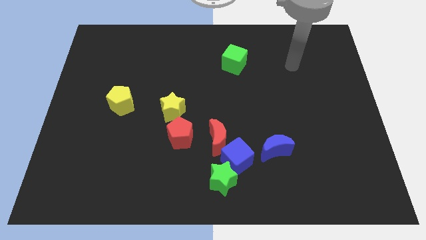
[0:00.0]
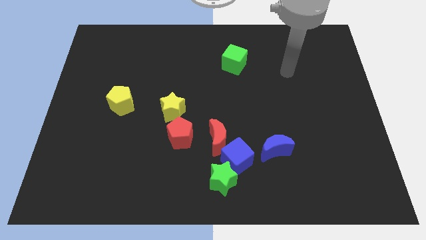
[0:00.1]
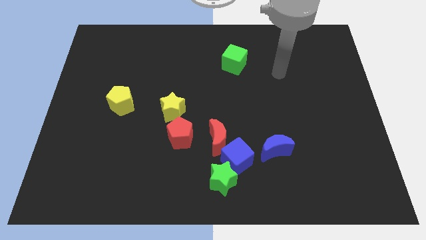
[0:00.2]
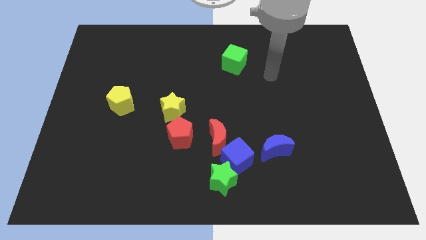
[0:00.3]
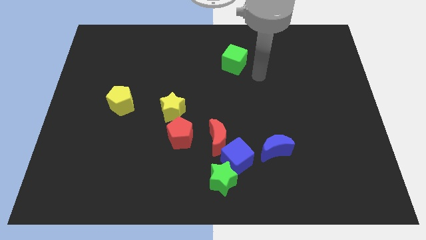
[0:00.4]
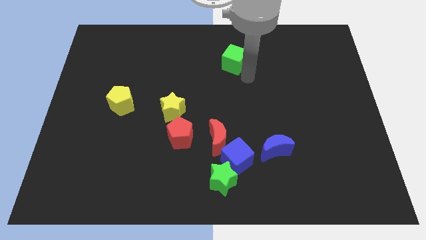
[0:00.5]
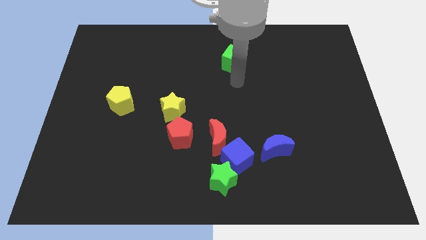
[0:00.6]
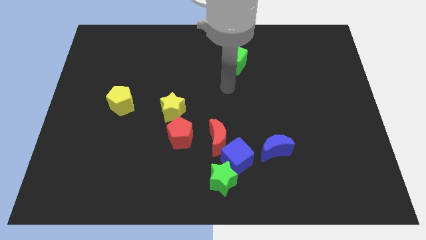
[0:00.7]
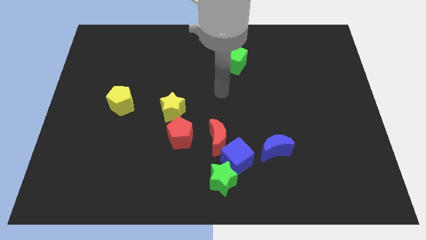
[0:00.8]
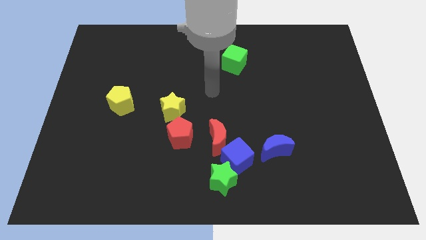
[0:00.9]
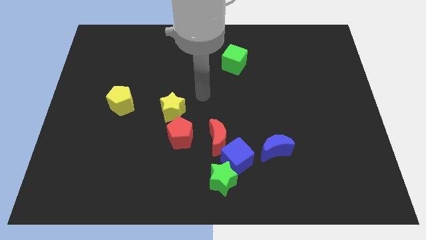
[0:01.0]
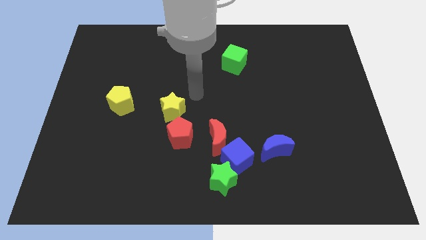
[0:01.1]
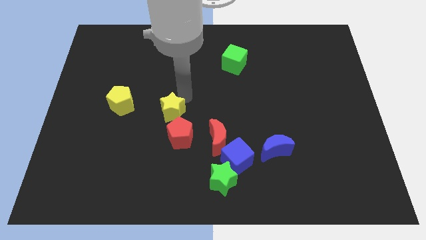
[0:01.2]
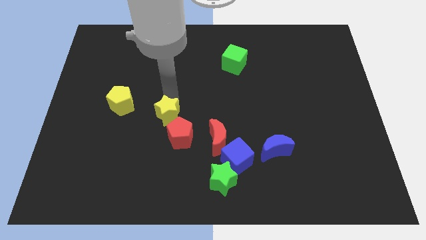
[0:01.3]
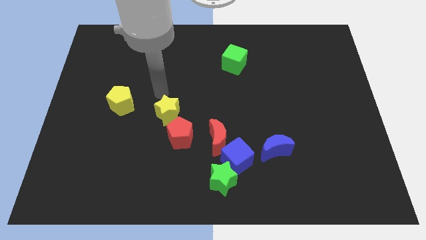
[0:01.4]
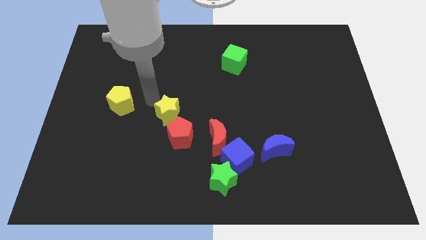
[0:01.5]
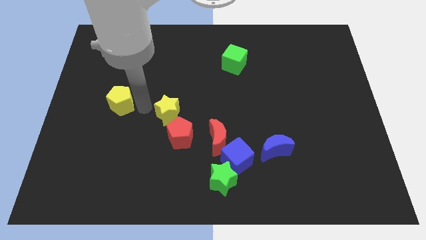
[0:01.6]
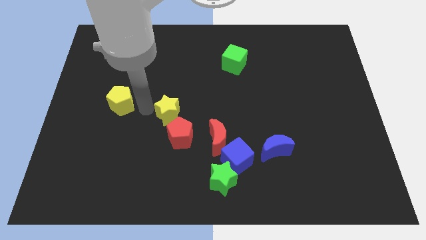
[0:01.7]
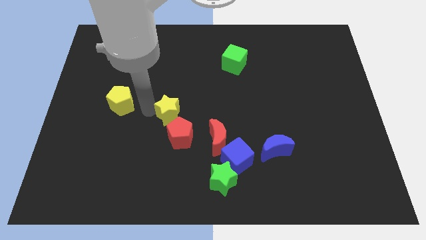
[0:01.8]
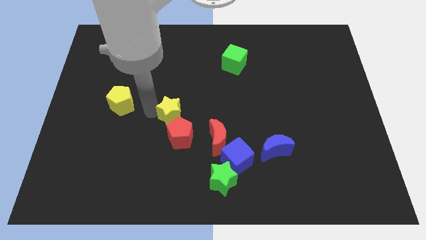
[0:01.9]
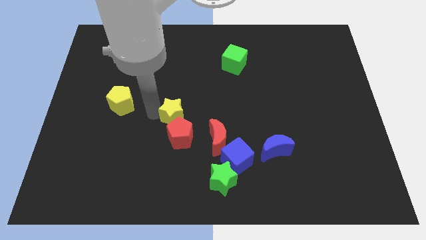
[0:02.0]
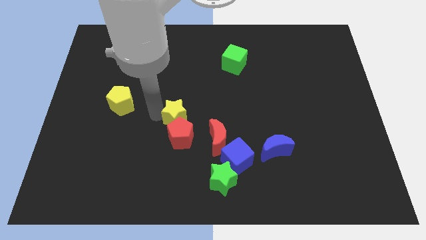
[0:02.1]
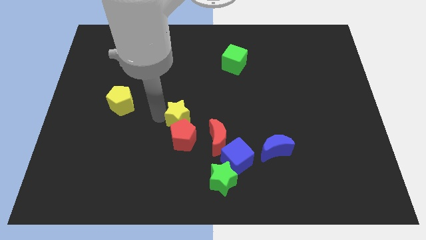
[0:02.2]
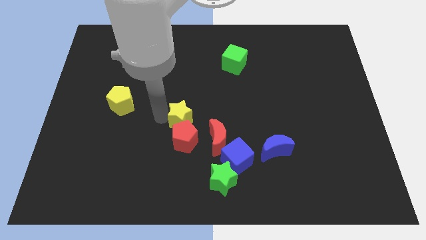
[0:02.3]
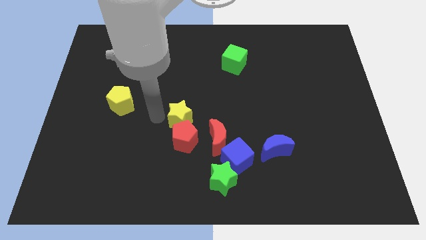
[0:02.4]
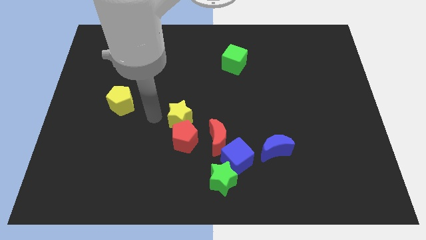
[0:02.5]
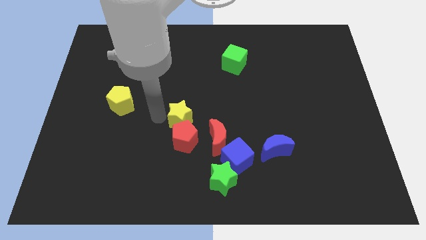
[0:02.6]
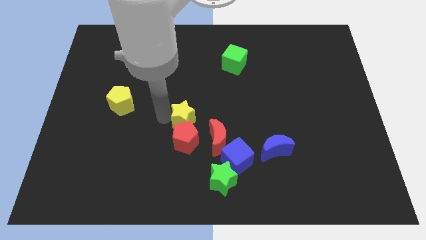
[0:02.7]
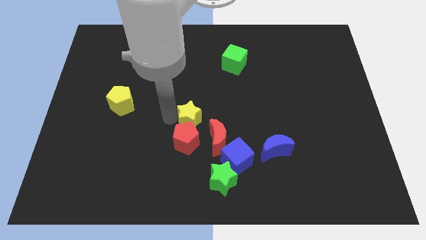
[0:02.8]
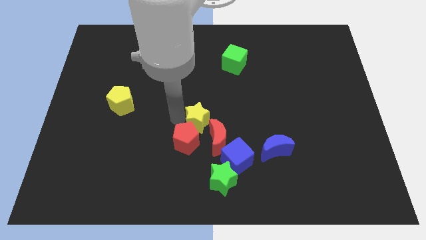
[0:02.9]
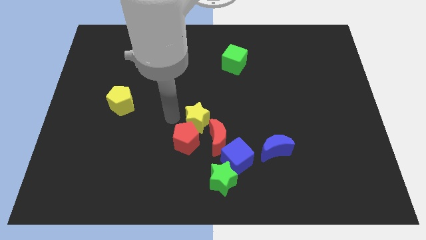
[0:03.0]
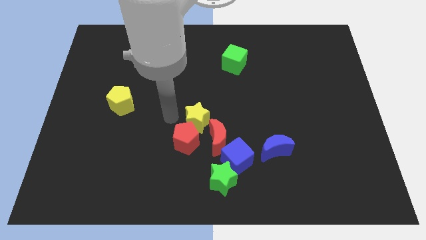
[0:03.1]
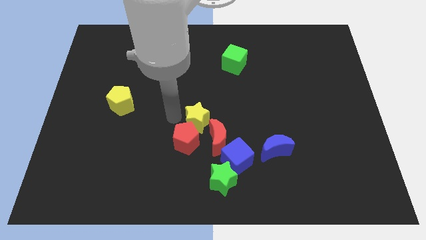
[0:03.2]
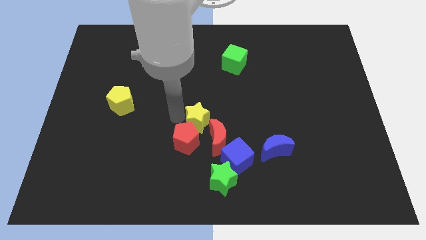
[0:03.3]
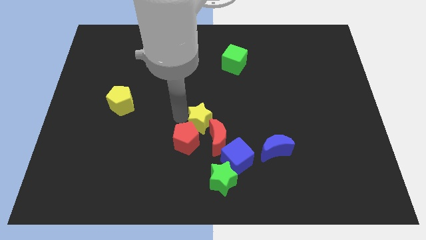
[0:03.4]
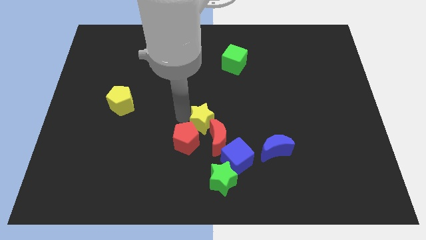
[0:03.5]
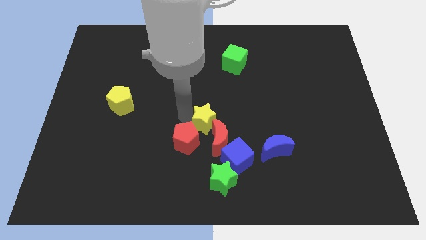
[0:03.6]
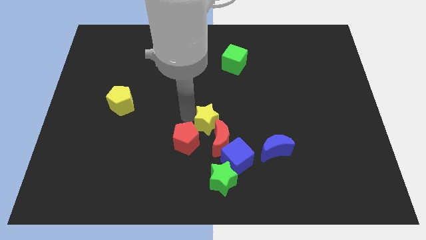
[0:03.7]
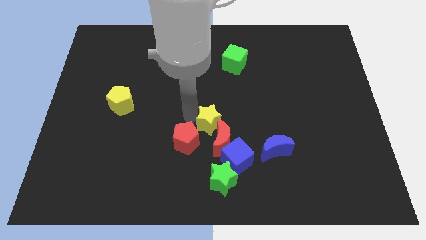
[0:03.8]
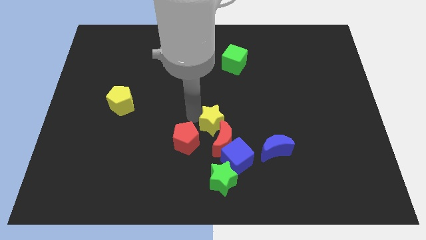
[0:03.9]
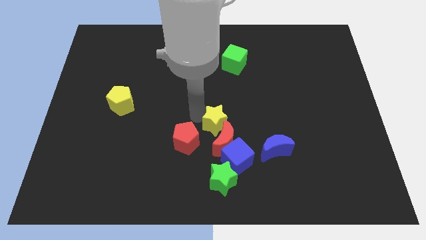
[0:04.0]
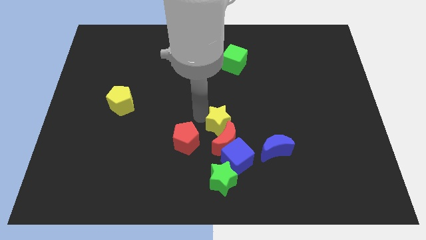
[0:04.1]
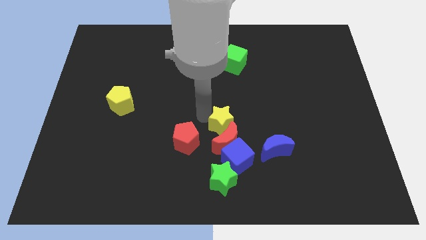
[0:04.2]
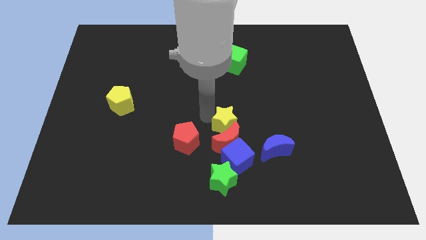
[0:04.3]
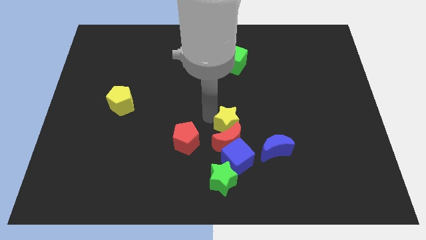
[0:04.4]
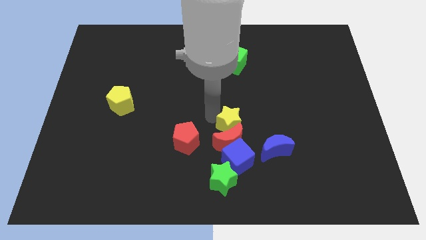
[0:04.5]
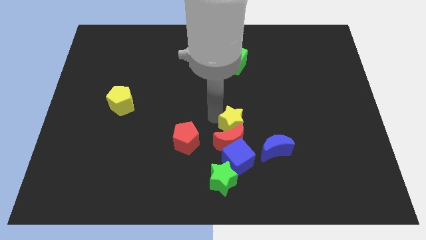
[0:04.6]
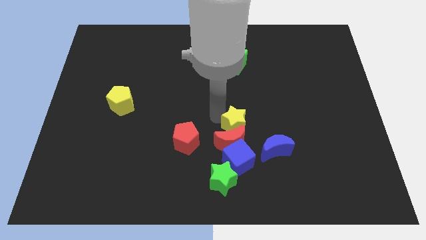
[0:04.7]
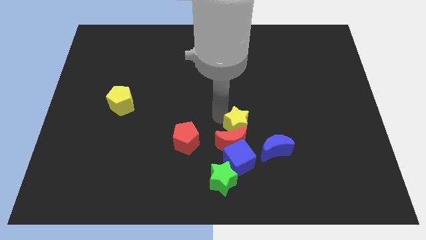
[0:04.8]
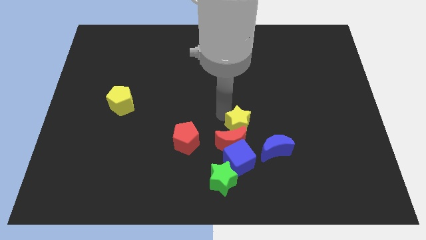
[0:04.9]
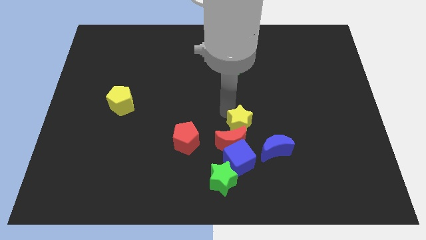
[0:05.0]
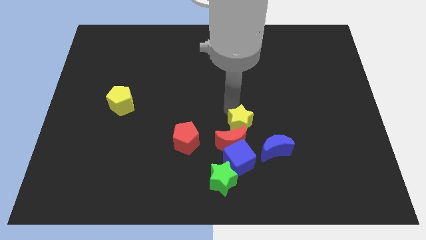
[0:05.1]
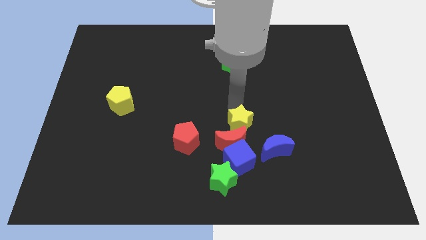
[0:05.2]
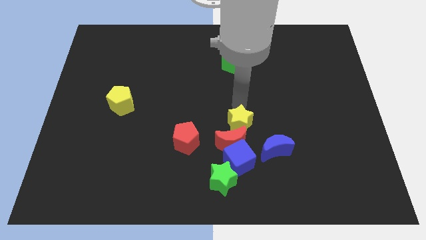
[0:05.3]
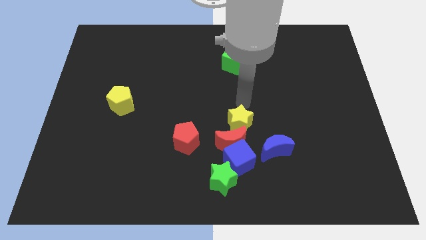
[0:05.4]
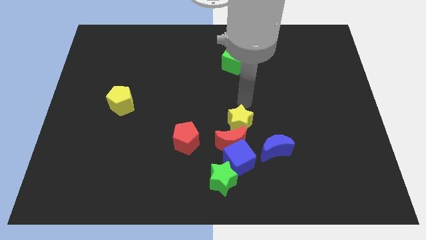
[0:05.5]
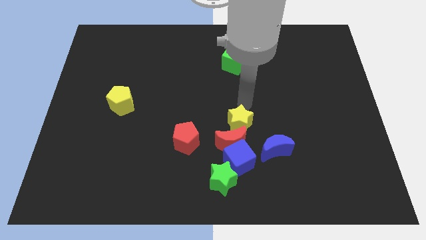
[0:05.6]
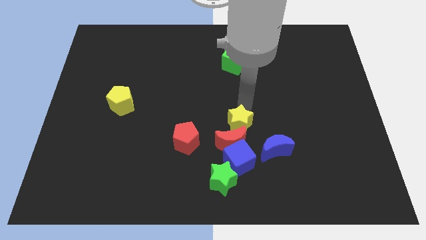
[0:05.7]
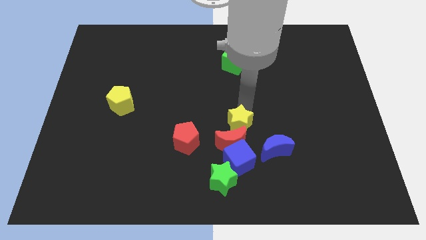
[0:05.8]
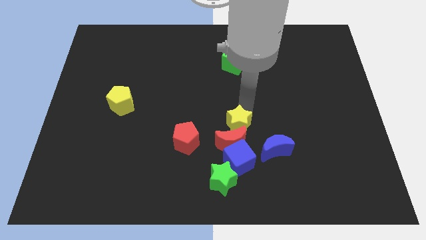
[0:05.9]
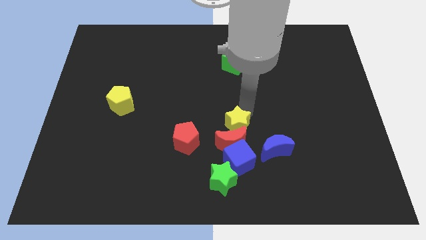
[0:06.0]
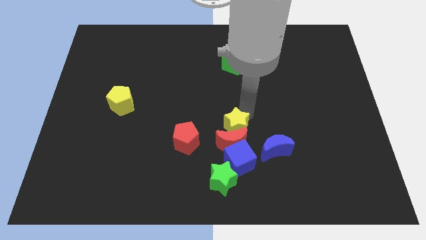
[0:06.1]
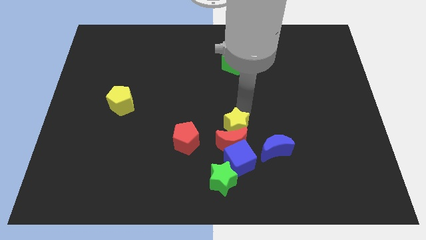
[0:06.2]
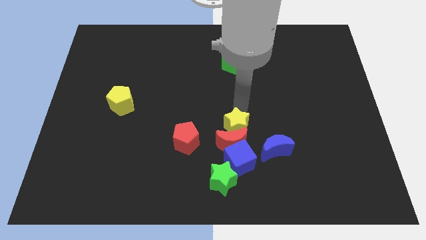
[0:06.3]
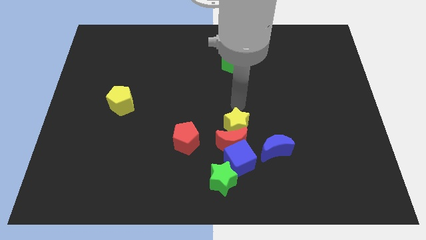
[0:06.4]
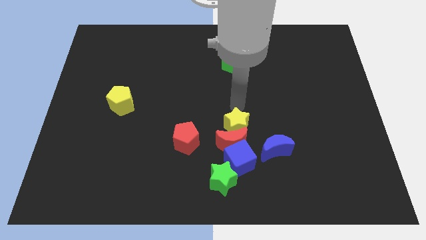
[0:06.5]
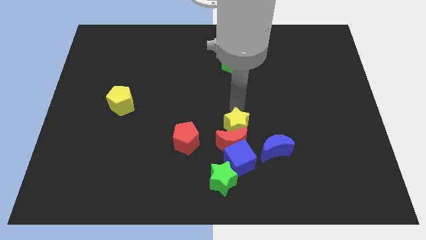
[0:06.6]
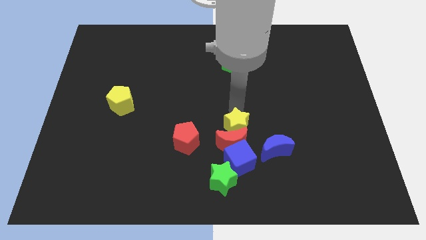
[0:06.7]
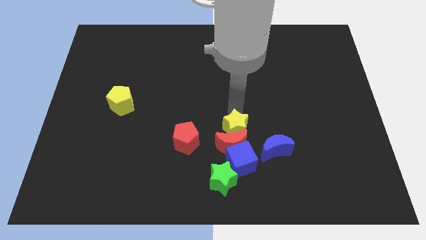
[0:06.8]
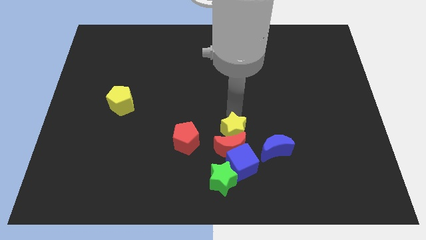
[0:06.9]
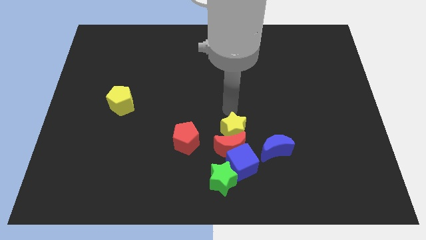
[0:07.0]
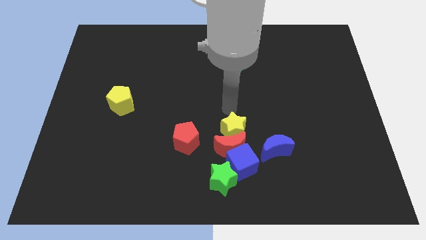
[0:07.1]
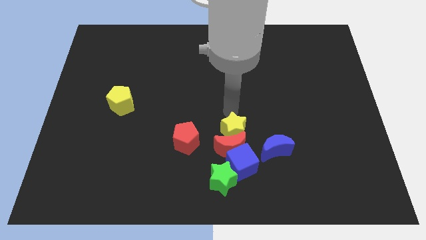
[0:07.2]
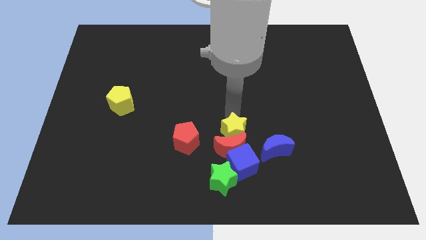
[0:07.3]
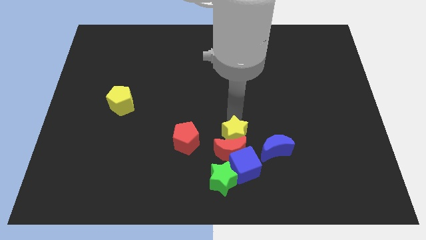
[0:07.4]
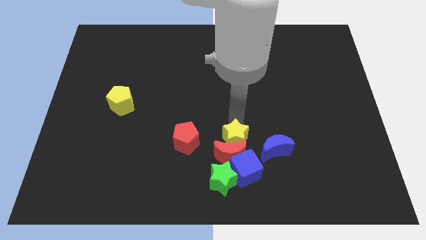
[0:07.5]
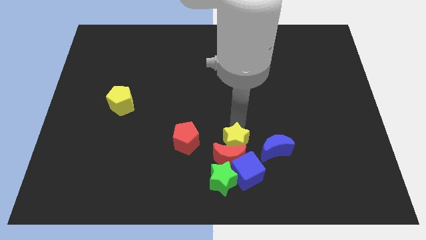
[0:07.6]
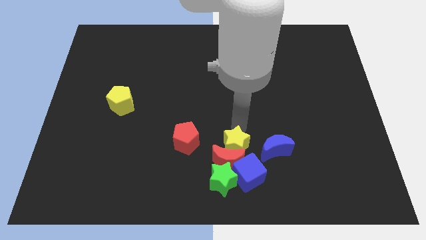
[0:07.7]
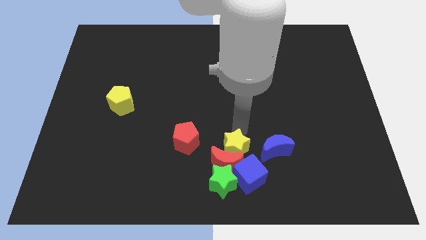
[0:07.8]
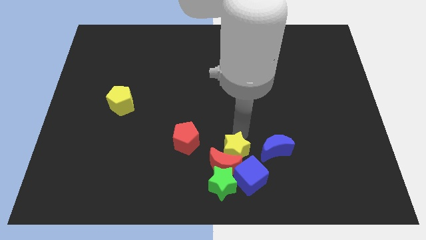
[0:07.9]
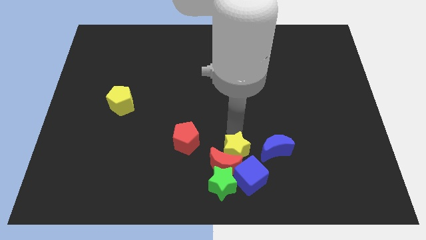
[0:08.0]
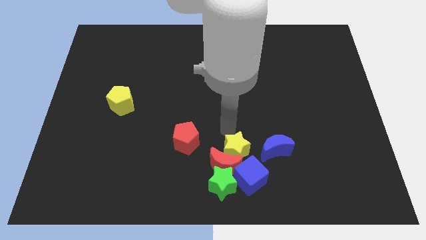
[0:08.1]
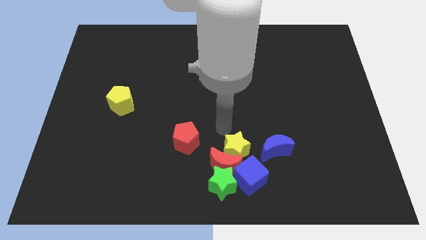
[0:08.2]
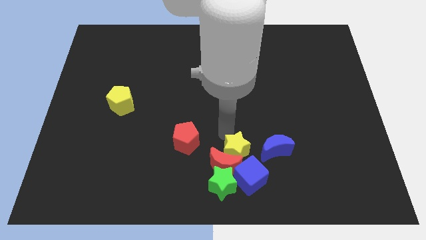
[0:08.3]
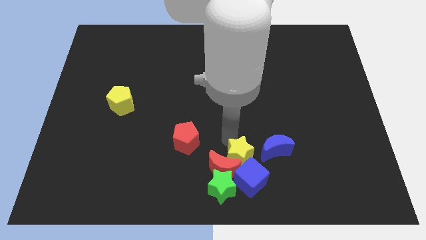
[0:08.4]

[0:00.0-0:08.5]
push the yellow star towards the blue cube
